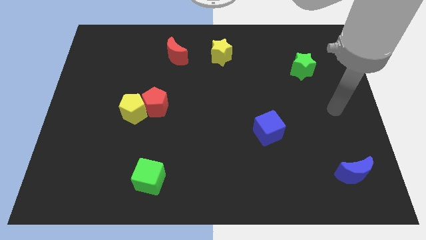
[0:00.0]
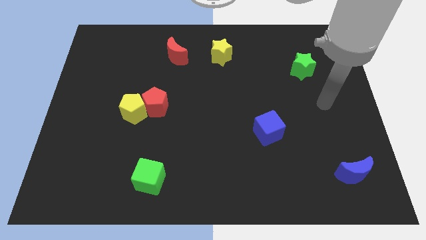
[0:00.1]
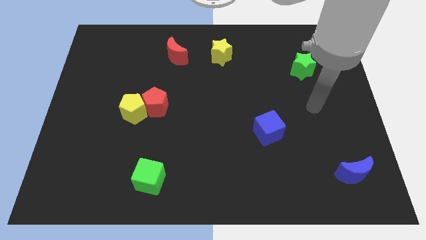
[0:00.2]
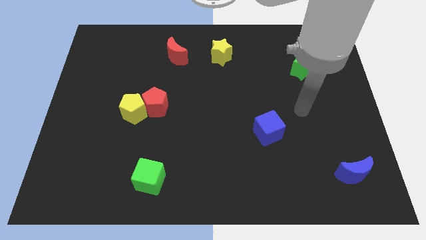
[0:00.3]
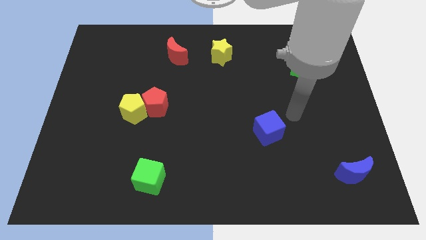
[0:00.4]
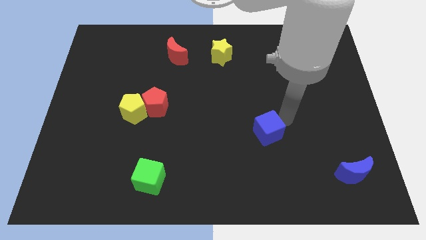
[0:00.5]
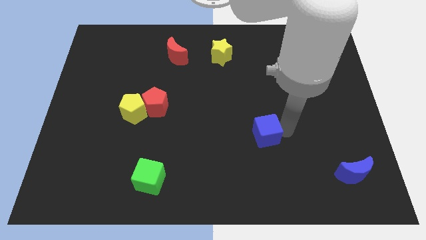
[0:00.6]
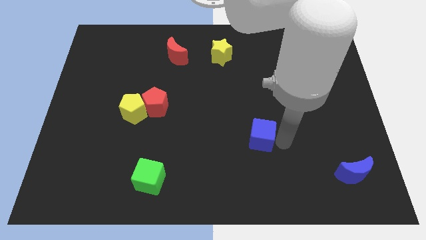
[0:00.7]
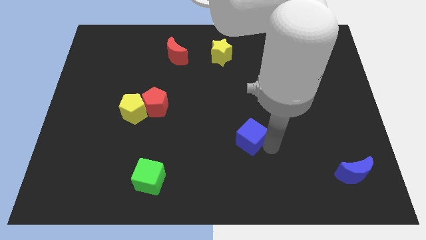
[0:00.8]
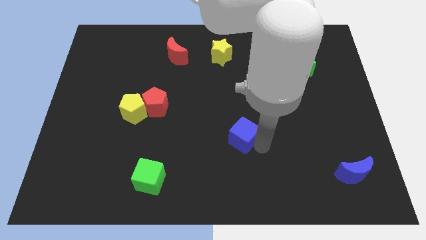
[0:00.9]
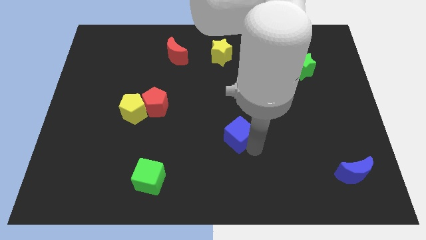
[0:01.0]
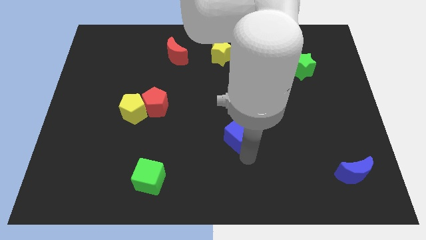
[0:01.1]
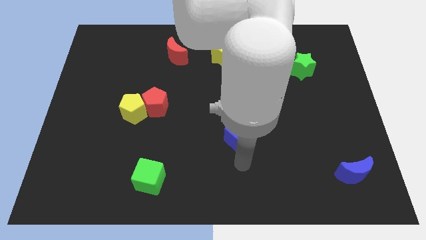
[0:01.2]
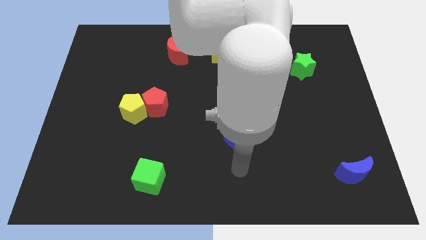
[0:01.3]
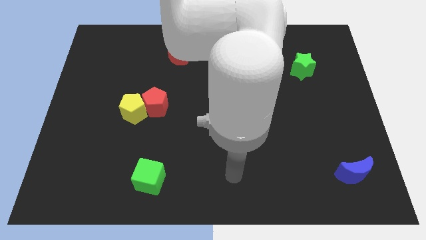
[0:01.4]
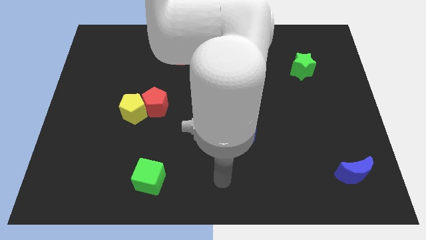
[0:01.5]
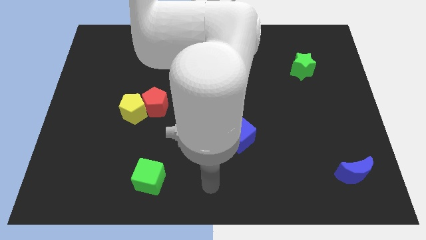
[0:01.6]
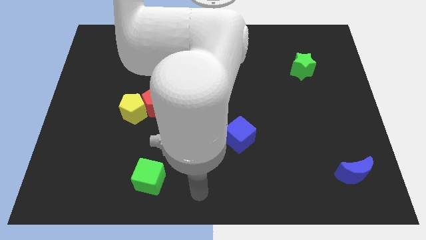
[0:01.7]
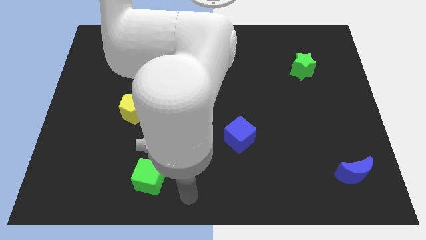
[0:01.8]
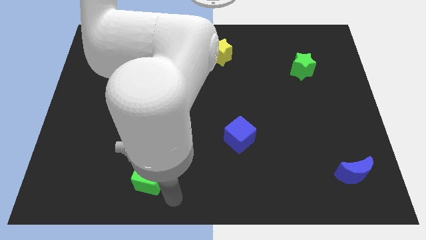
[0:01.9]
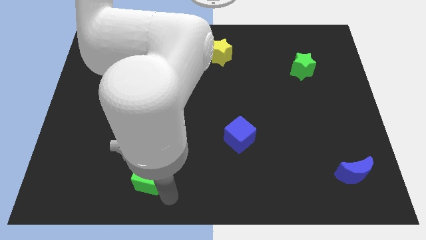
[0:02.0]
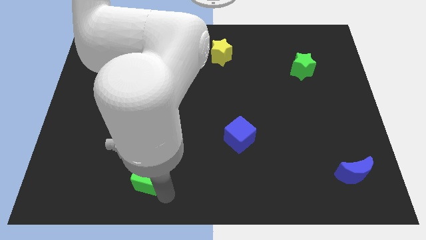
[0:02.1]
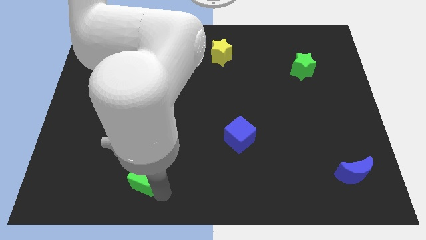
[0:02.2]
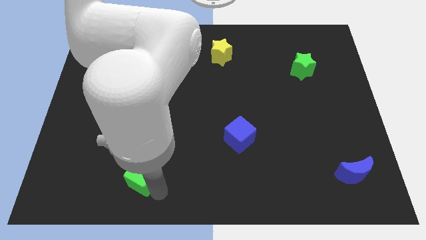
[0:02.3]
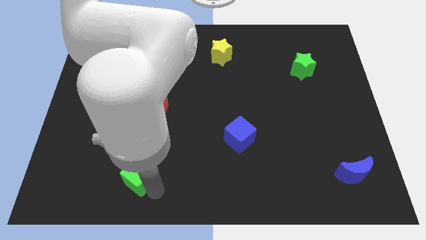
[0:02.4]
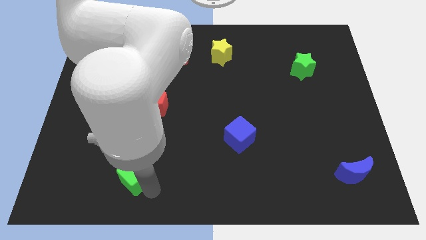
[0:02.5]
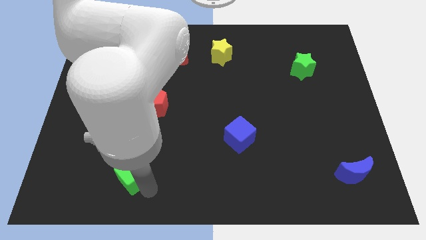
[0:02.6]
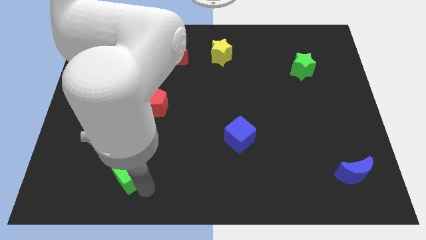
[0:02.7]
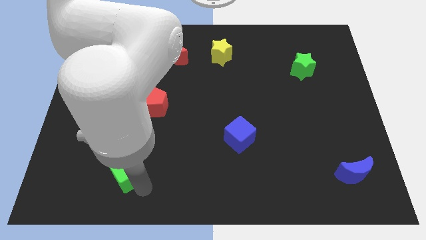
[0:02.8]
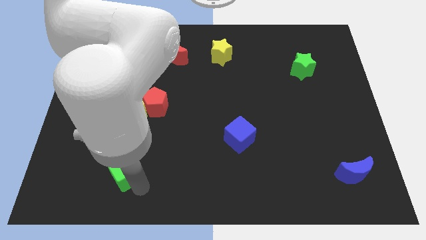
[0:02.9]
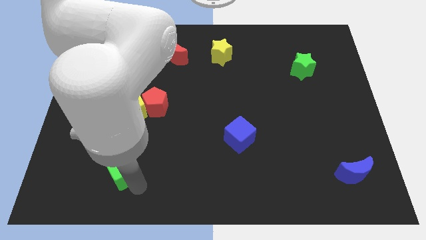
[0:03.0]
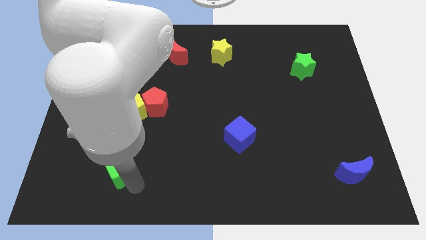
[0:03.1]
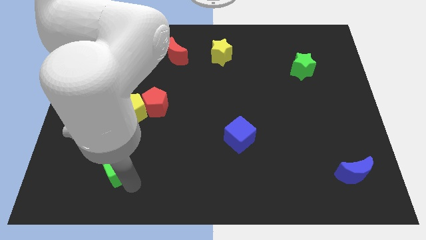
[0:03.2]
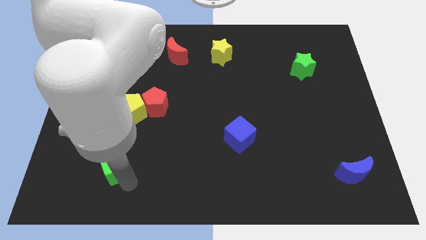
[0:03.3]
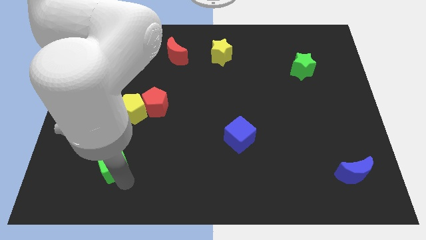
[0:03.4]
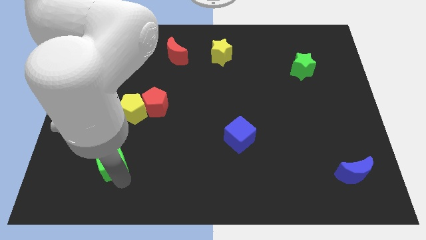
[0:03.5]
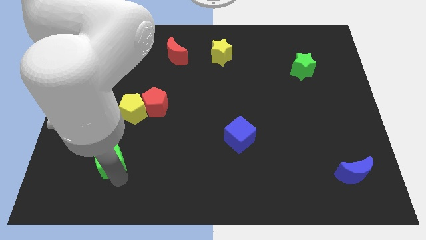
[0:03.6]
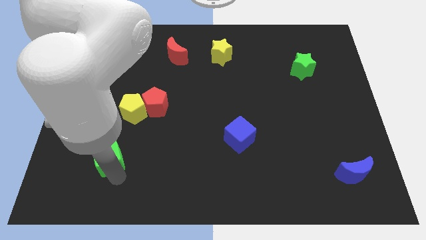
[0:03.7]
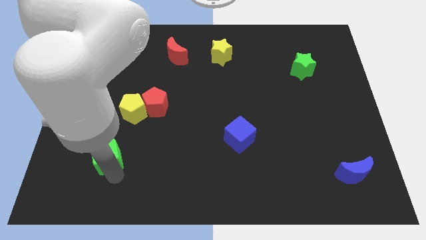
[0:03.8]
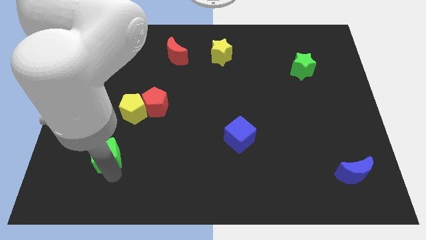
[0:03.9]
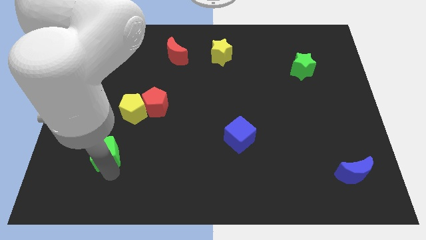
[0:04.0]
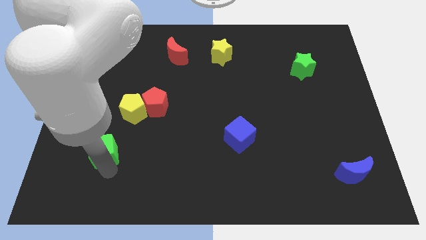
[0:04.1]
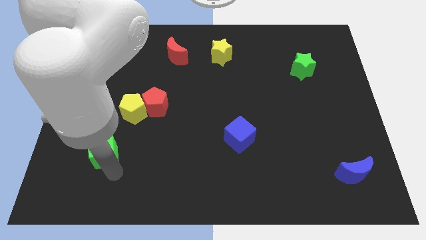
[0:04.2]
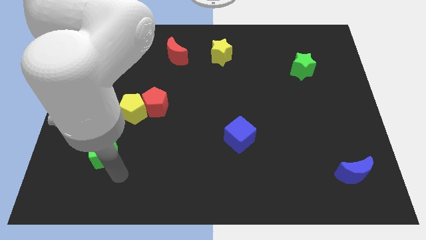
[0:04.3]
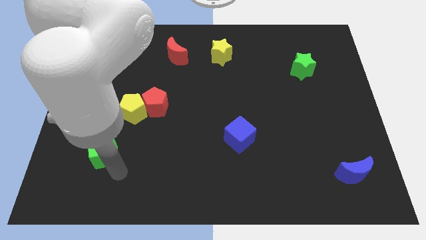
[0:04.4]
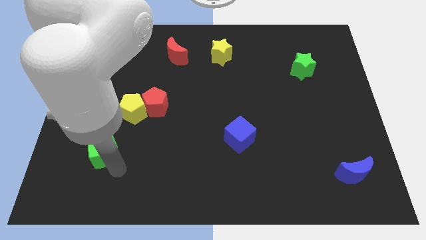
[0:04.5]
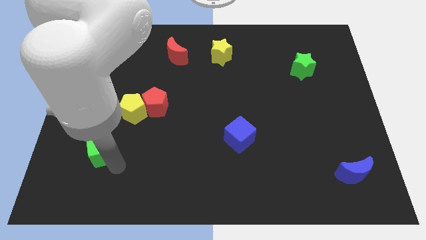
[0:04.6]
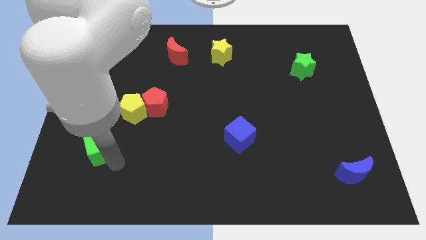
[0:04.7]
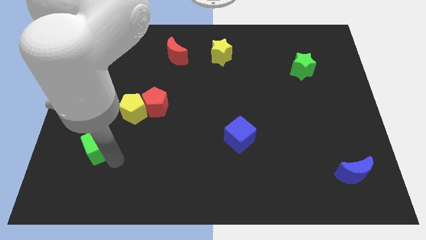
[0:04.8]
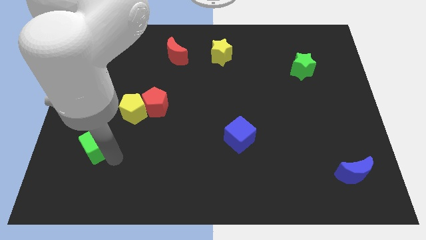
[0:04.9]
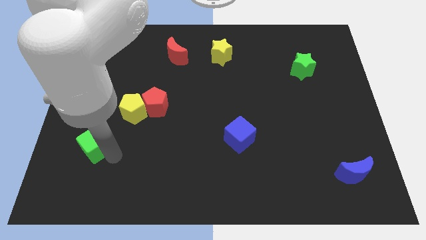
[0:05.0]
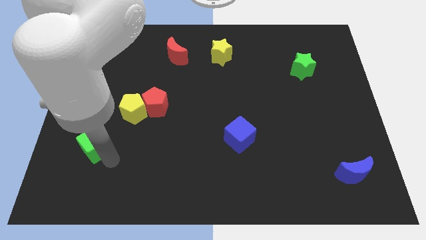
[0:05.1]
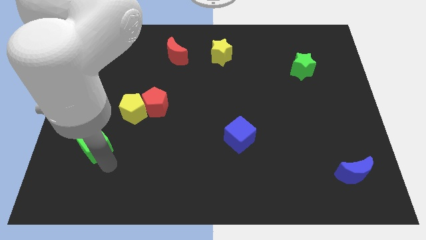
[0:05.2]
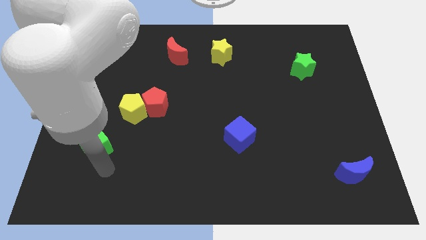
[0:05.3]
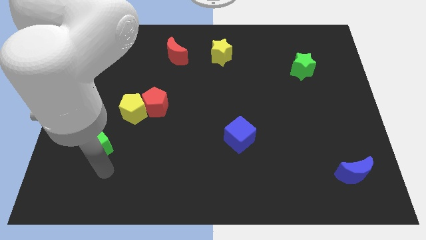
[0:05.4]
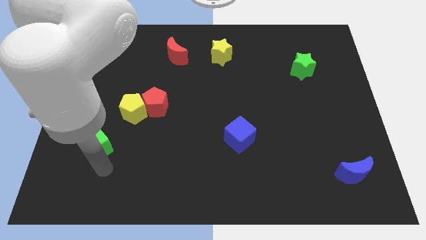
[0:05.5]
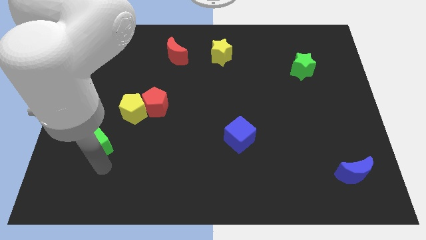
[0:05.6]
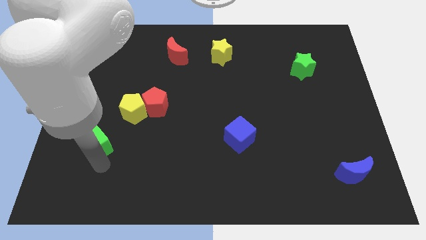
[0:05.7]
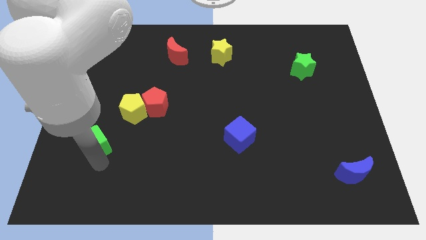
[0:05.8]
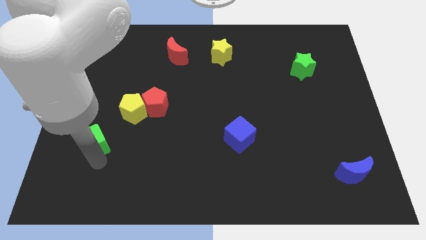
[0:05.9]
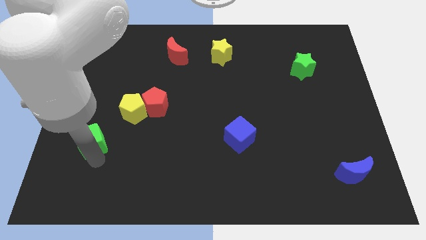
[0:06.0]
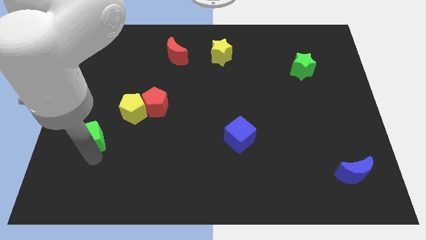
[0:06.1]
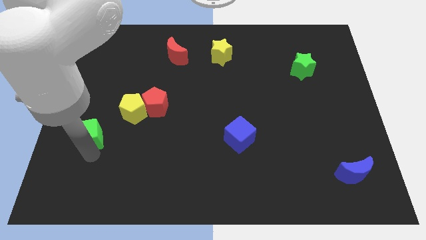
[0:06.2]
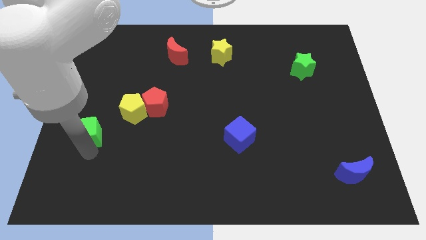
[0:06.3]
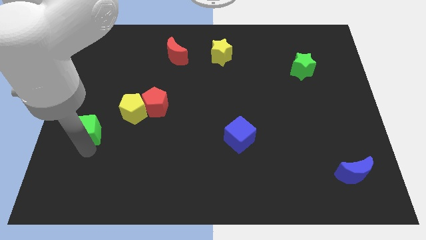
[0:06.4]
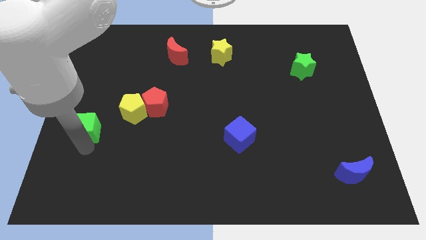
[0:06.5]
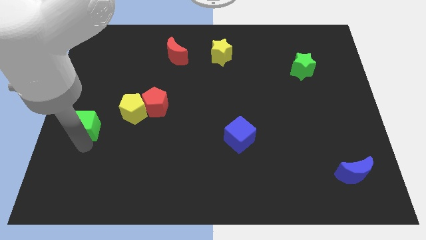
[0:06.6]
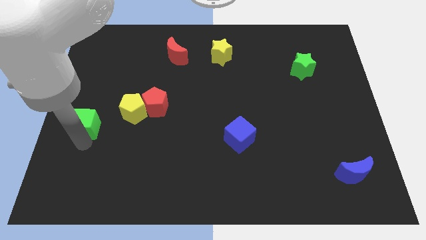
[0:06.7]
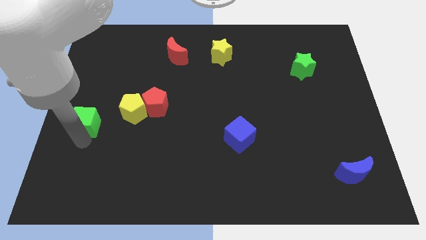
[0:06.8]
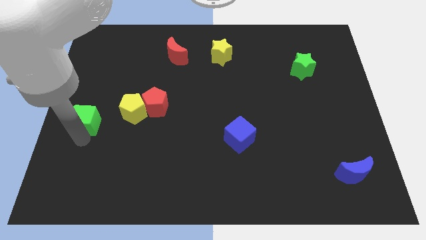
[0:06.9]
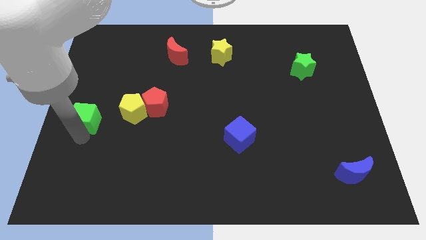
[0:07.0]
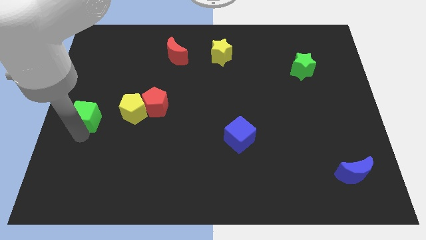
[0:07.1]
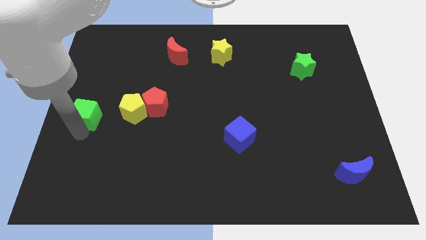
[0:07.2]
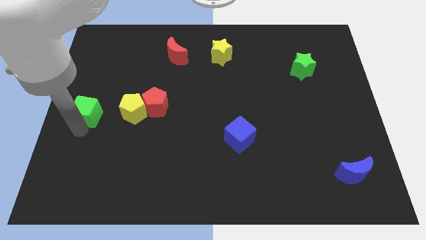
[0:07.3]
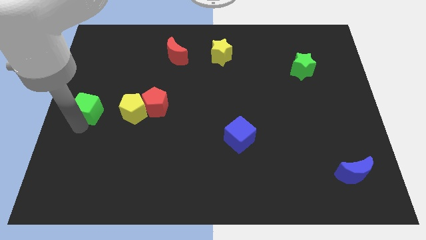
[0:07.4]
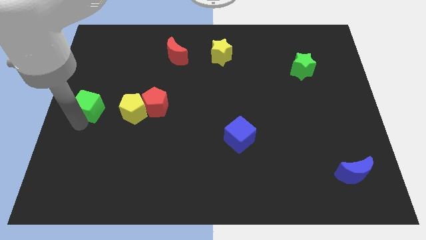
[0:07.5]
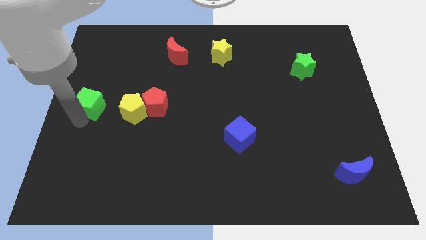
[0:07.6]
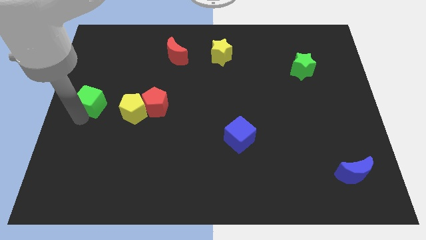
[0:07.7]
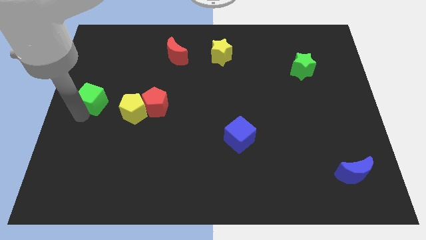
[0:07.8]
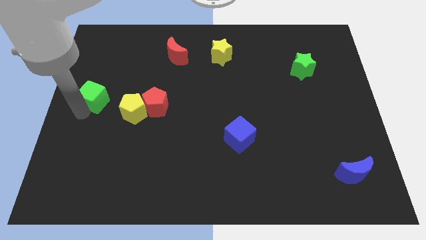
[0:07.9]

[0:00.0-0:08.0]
slide the green cube to the top left side of the yellow pentagon
